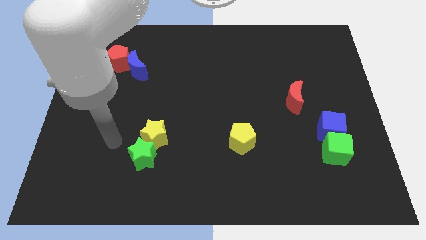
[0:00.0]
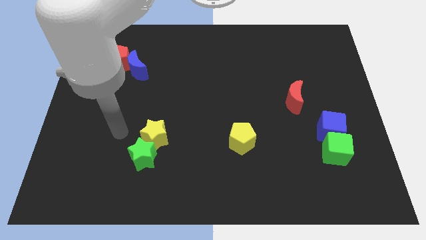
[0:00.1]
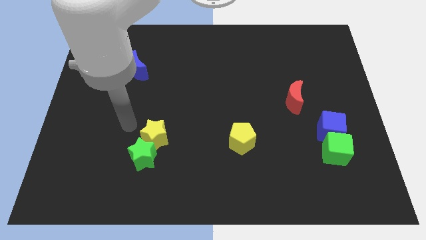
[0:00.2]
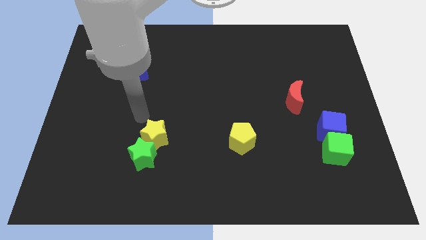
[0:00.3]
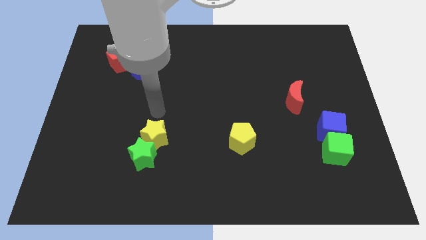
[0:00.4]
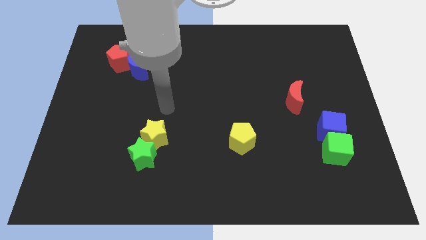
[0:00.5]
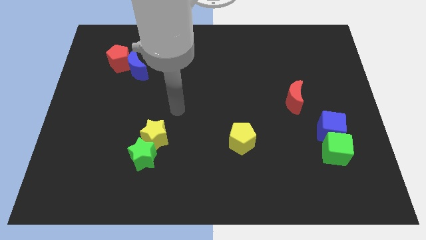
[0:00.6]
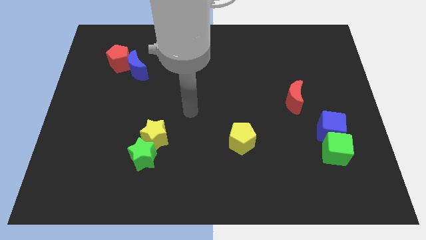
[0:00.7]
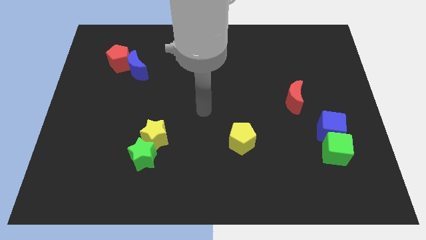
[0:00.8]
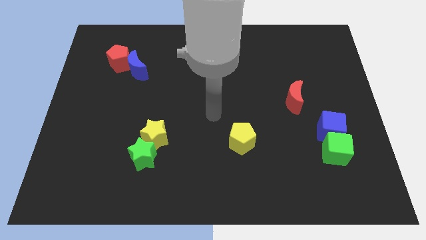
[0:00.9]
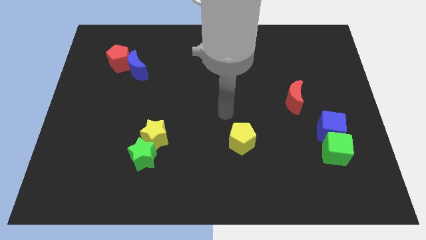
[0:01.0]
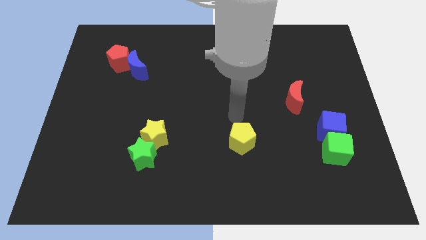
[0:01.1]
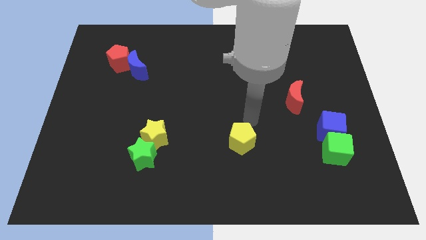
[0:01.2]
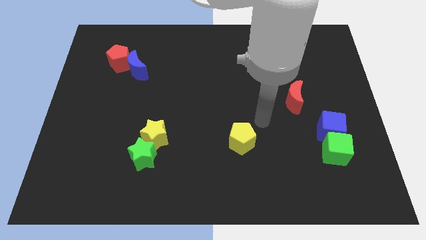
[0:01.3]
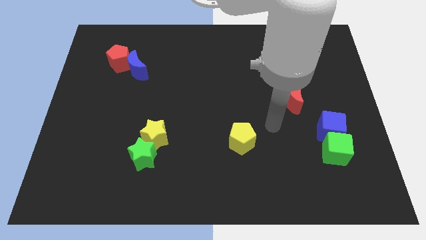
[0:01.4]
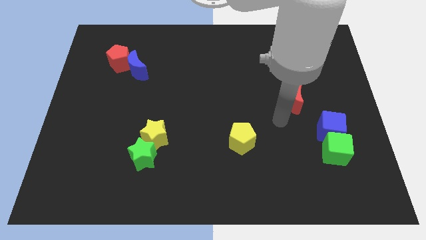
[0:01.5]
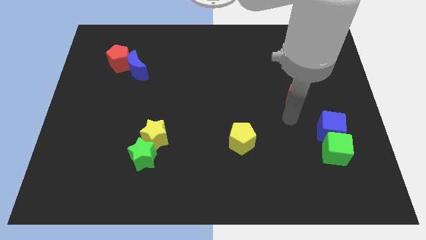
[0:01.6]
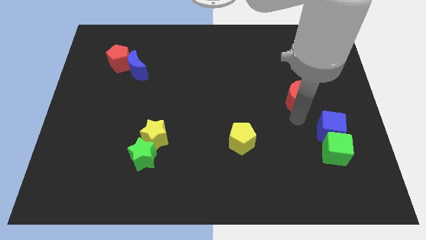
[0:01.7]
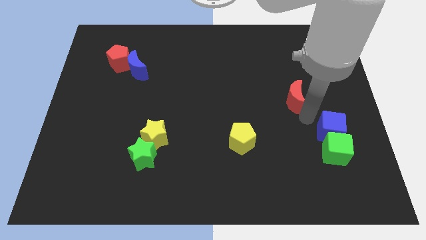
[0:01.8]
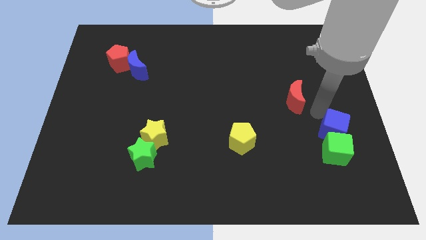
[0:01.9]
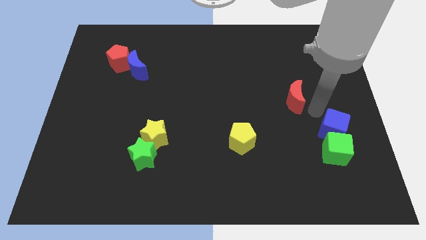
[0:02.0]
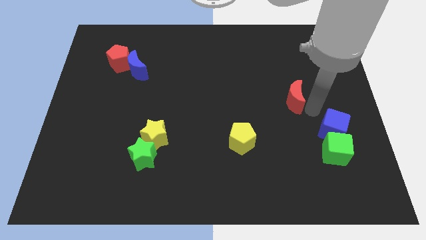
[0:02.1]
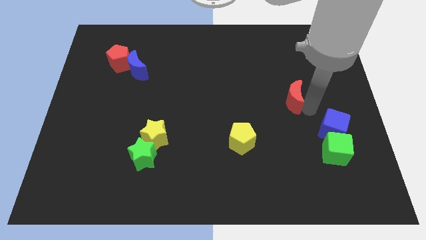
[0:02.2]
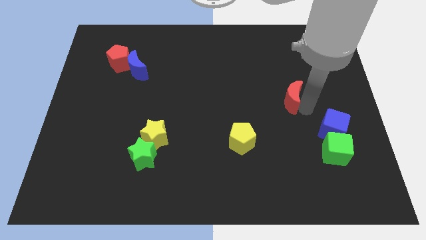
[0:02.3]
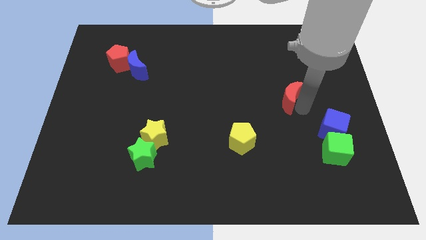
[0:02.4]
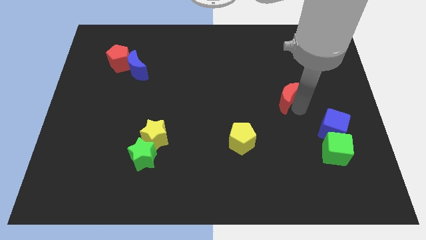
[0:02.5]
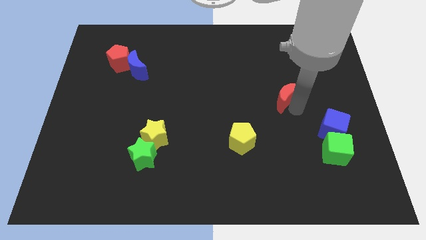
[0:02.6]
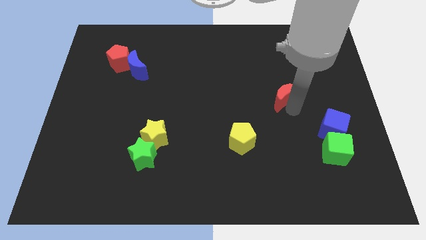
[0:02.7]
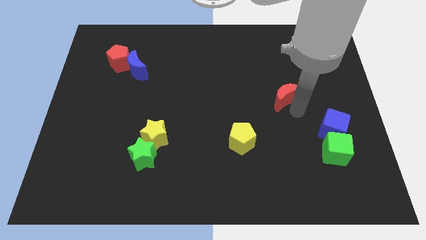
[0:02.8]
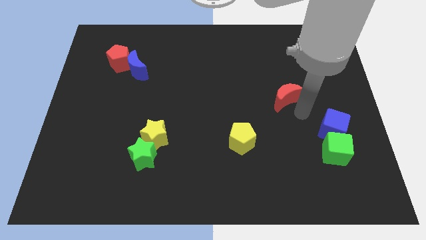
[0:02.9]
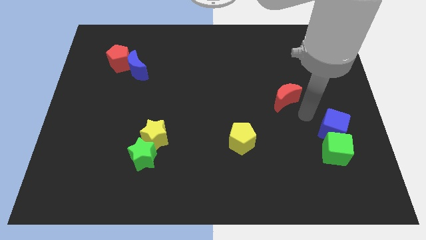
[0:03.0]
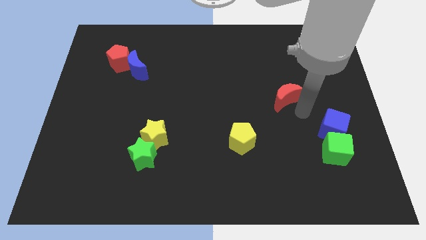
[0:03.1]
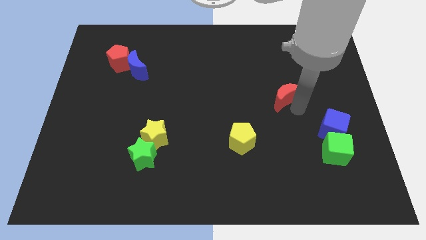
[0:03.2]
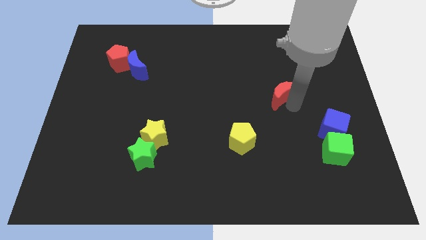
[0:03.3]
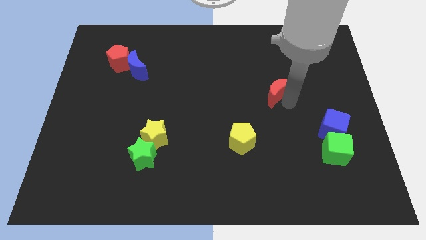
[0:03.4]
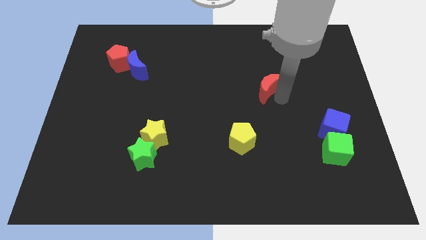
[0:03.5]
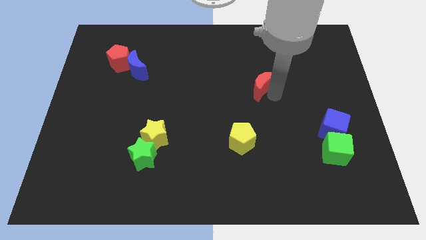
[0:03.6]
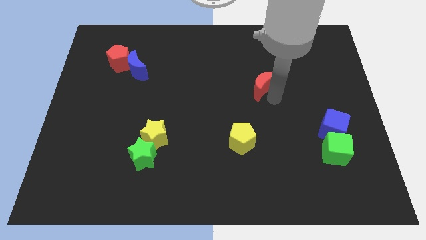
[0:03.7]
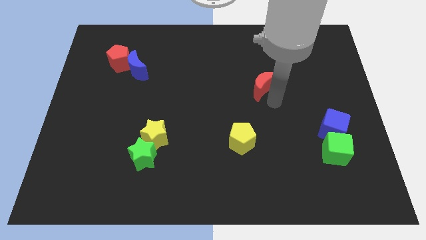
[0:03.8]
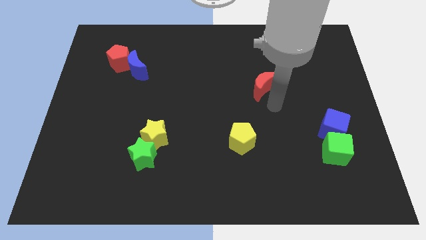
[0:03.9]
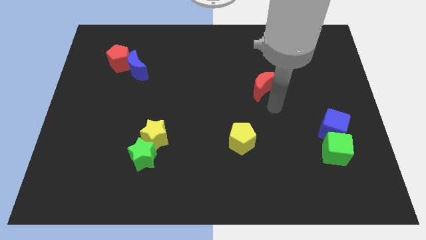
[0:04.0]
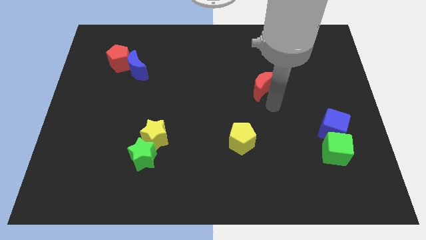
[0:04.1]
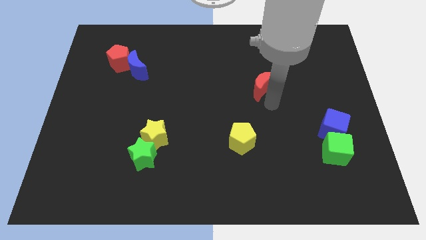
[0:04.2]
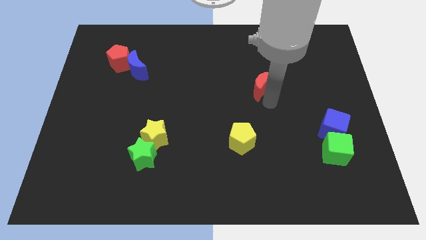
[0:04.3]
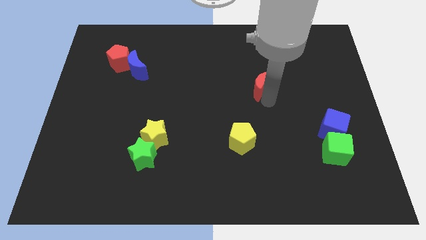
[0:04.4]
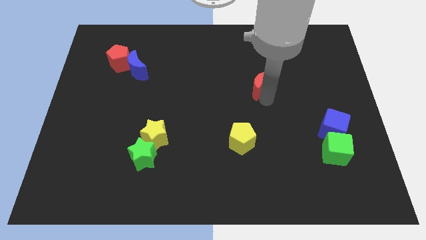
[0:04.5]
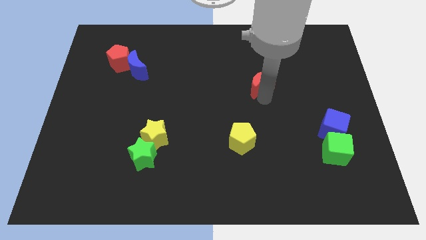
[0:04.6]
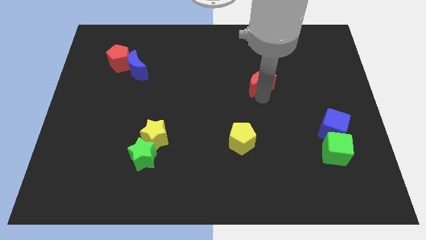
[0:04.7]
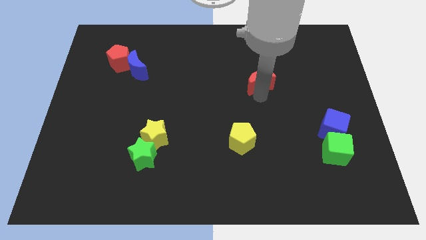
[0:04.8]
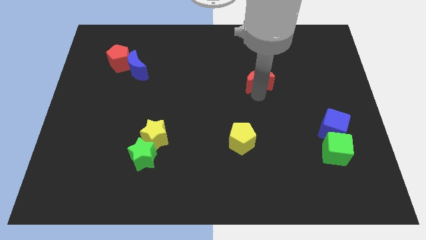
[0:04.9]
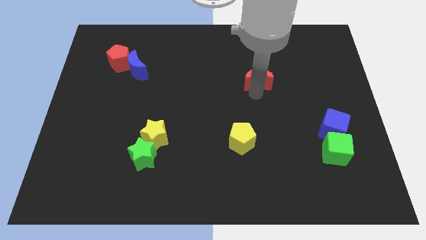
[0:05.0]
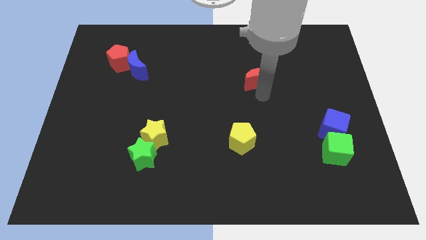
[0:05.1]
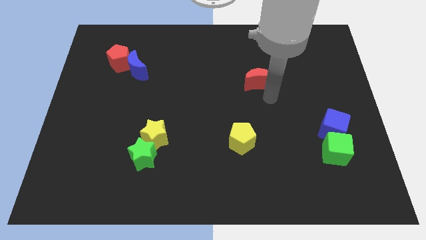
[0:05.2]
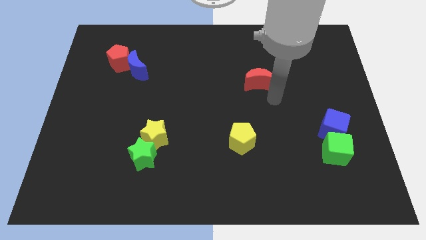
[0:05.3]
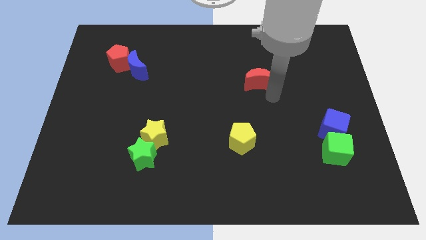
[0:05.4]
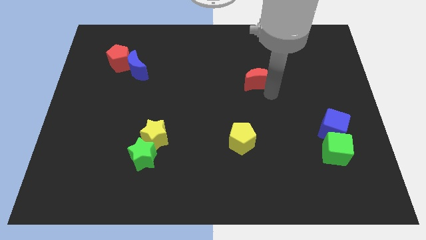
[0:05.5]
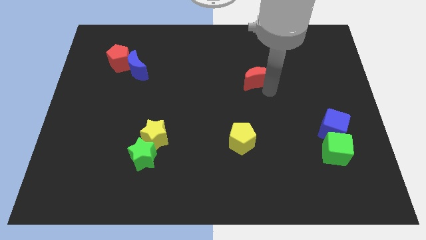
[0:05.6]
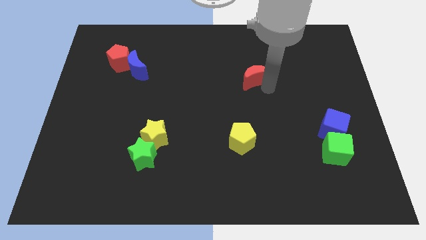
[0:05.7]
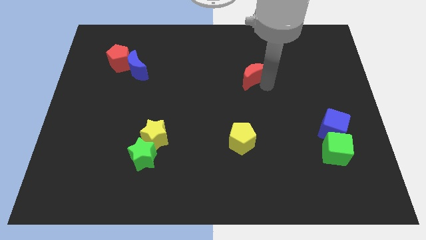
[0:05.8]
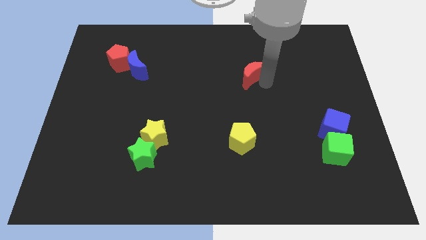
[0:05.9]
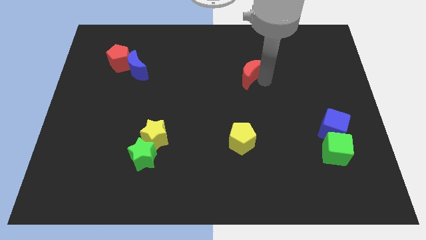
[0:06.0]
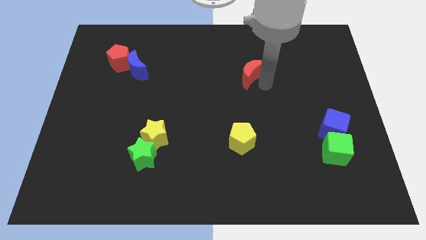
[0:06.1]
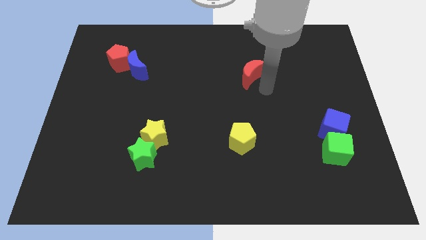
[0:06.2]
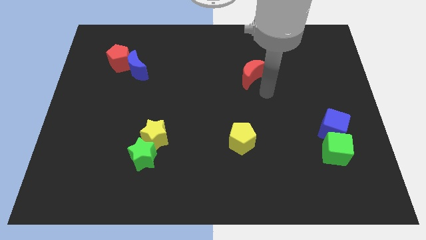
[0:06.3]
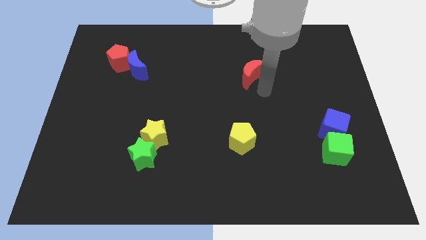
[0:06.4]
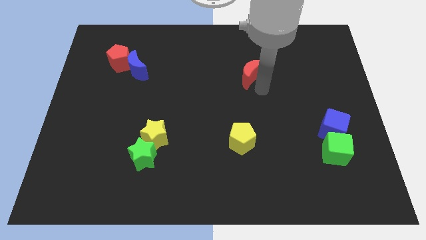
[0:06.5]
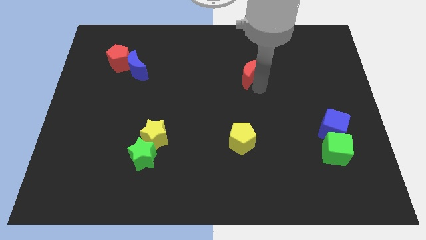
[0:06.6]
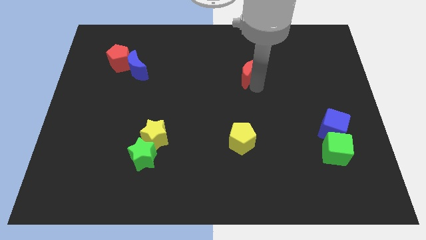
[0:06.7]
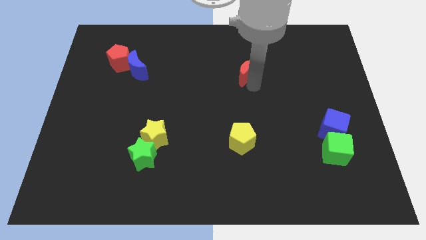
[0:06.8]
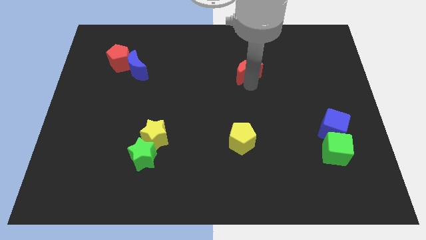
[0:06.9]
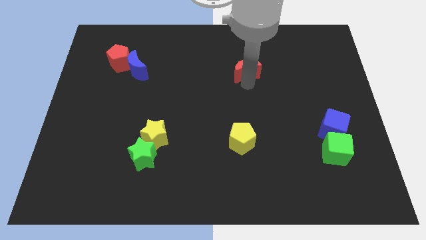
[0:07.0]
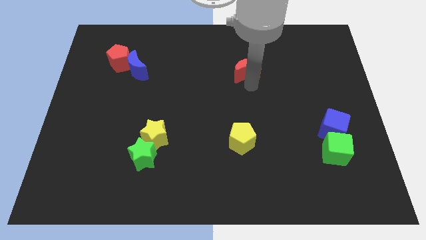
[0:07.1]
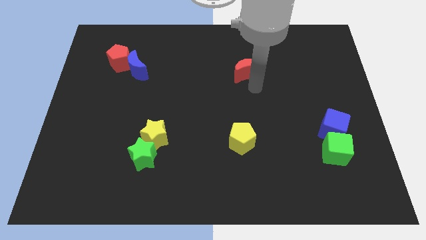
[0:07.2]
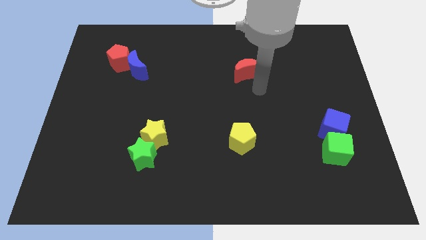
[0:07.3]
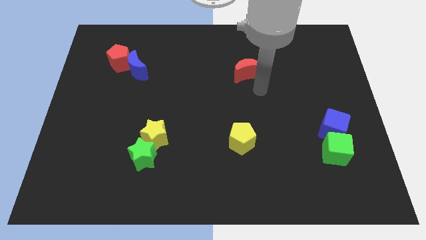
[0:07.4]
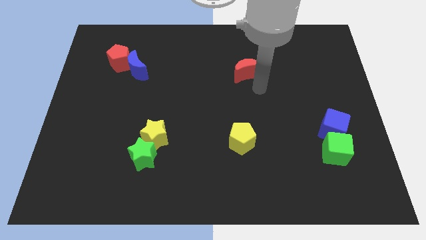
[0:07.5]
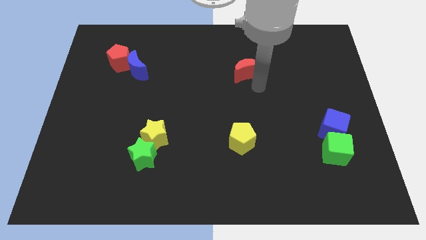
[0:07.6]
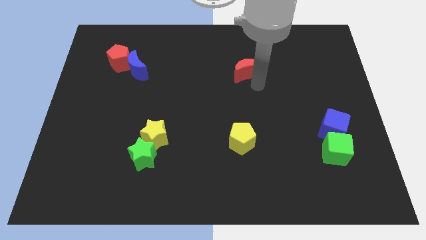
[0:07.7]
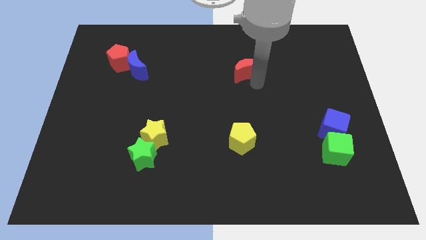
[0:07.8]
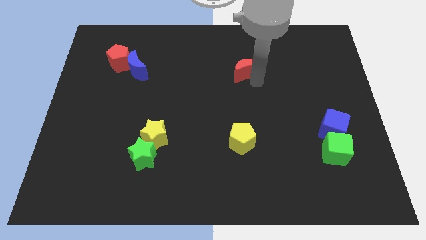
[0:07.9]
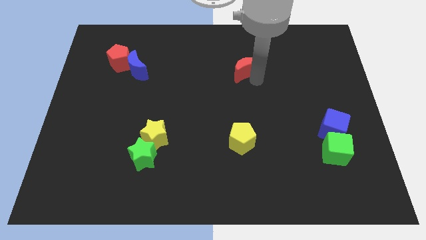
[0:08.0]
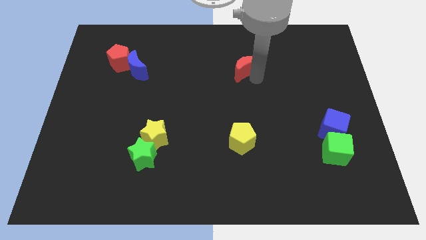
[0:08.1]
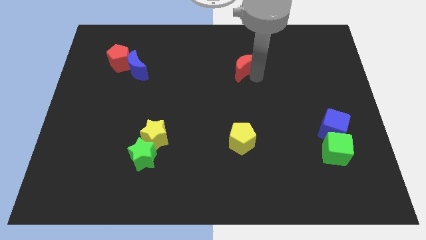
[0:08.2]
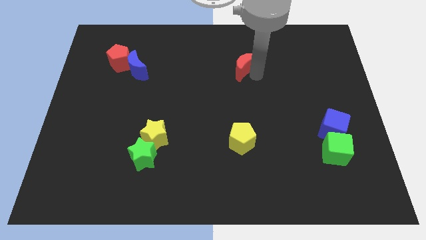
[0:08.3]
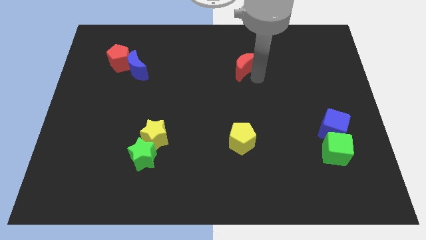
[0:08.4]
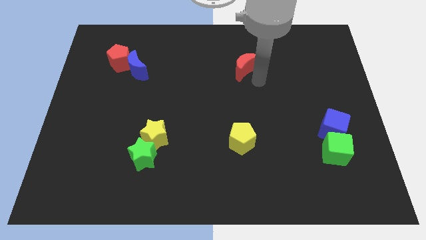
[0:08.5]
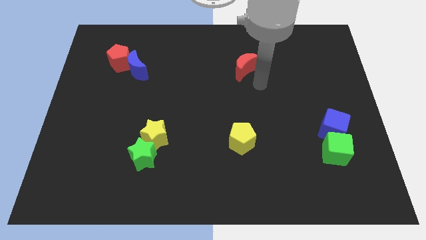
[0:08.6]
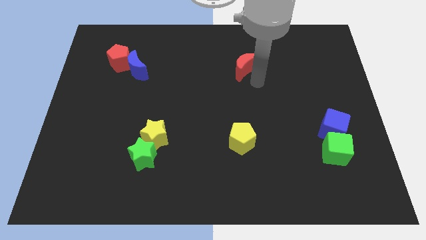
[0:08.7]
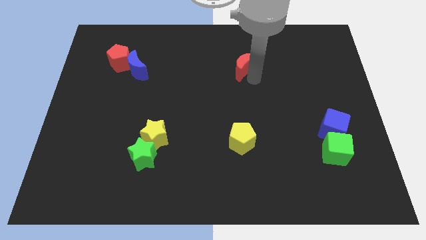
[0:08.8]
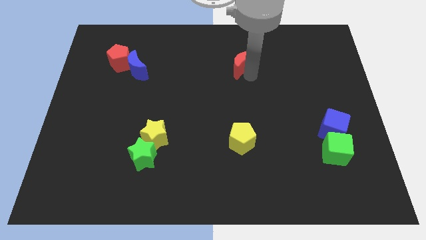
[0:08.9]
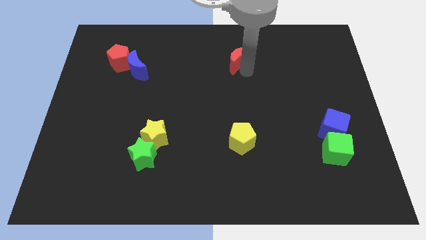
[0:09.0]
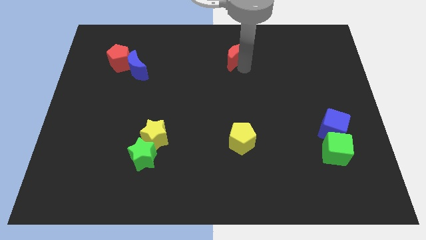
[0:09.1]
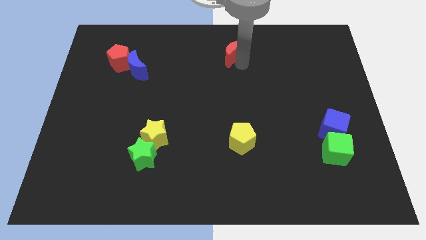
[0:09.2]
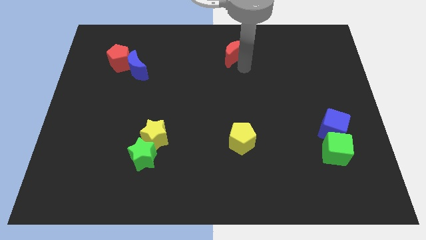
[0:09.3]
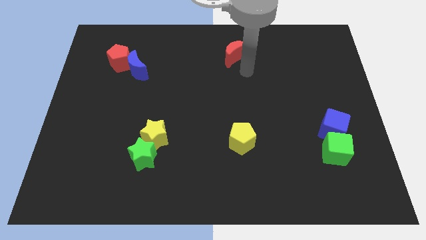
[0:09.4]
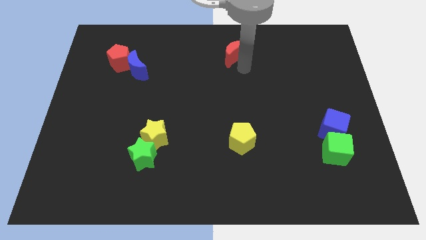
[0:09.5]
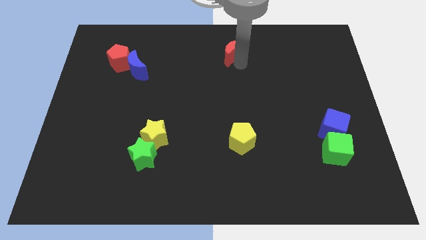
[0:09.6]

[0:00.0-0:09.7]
move the red moon to the top side
